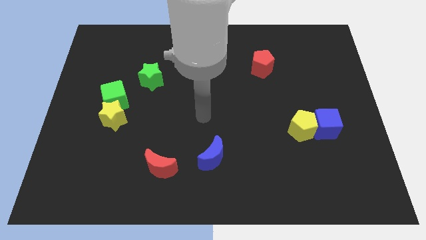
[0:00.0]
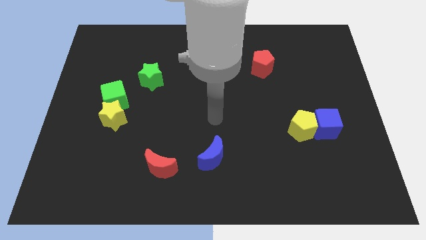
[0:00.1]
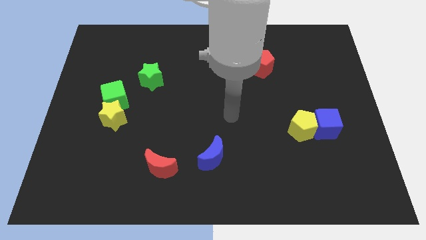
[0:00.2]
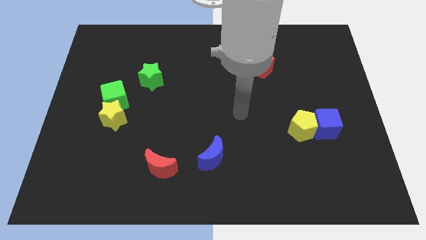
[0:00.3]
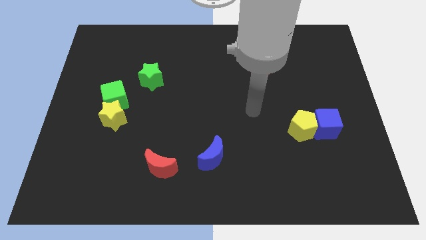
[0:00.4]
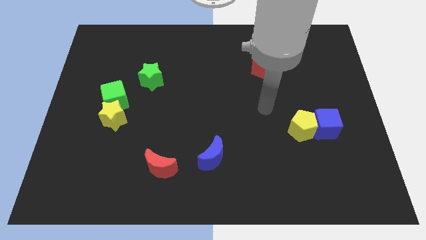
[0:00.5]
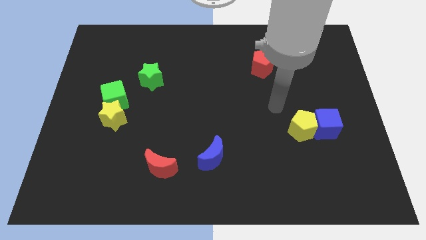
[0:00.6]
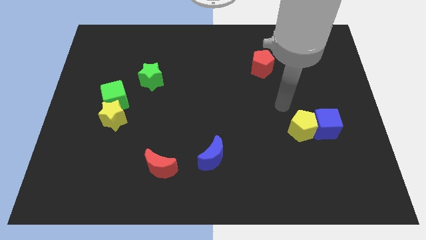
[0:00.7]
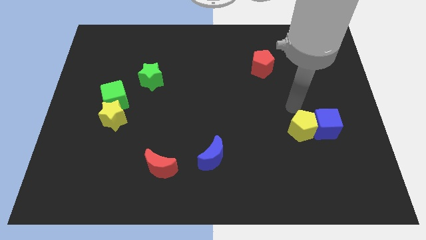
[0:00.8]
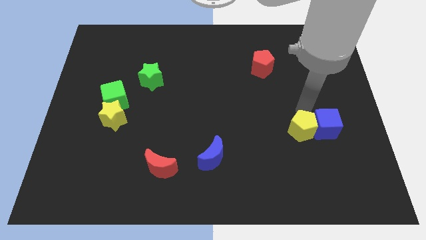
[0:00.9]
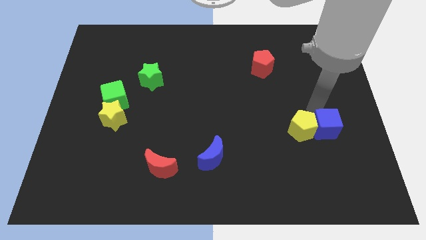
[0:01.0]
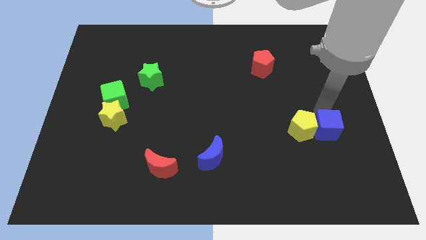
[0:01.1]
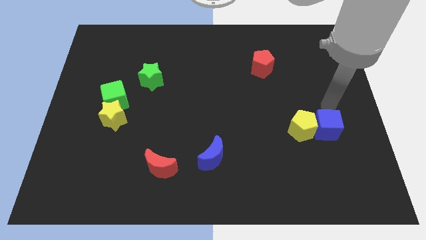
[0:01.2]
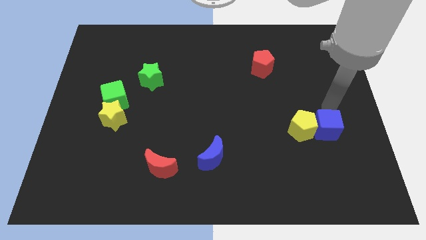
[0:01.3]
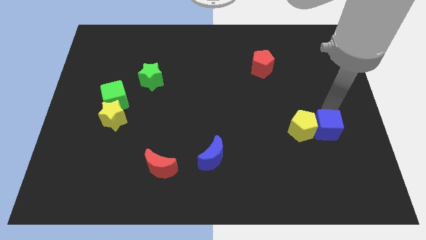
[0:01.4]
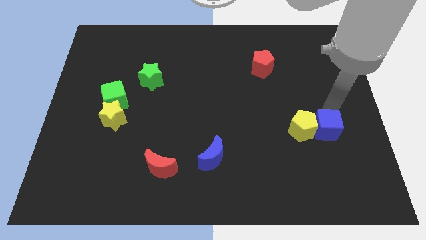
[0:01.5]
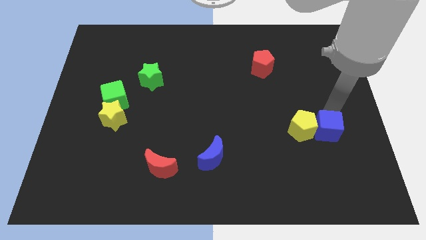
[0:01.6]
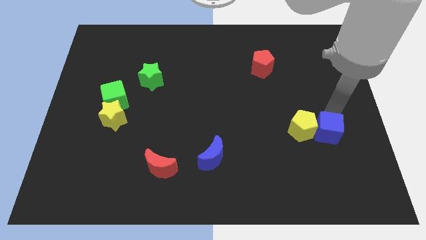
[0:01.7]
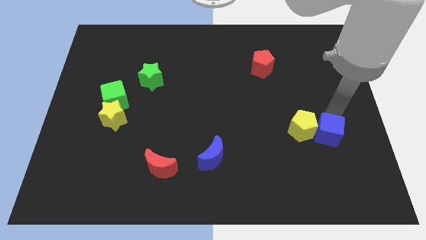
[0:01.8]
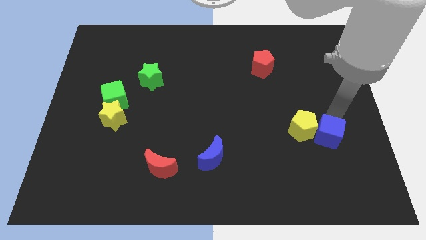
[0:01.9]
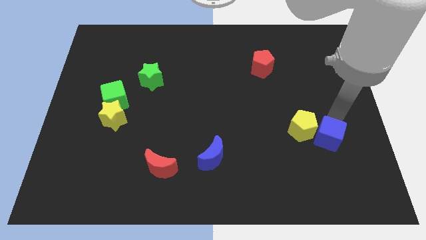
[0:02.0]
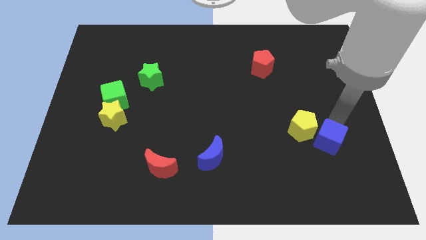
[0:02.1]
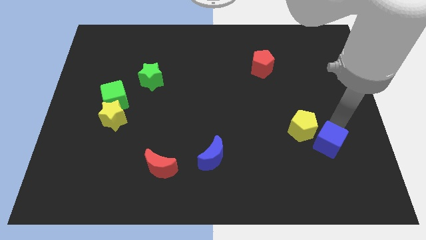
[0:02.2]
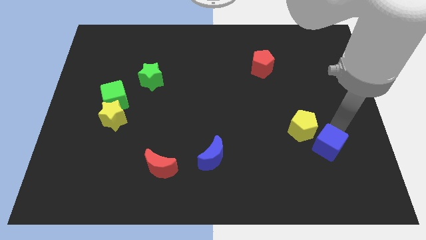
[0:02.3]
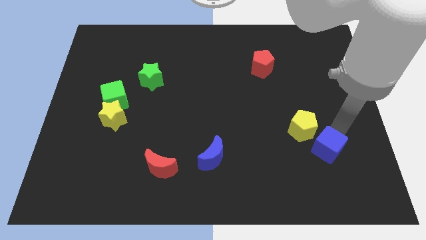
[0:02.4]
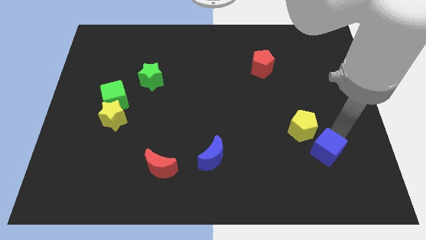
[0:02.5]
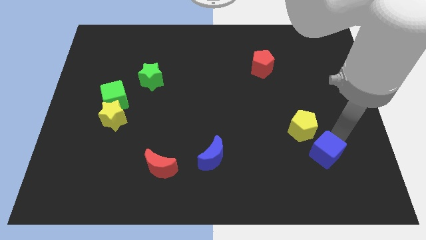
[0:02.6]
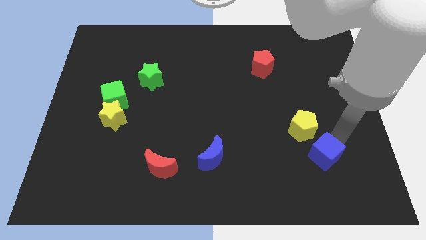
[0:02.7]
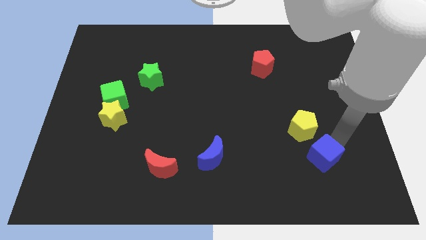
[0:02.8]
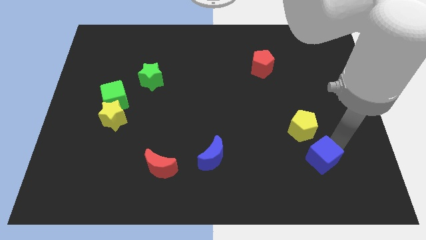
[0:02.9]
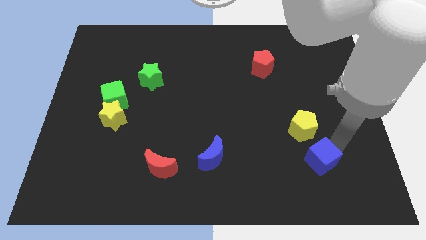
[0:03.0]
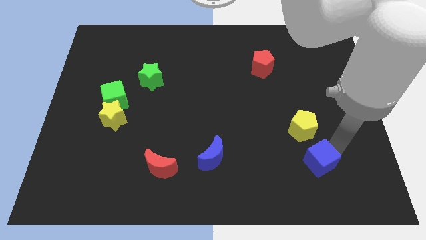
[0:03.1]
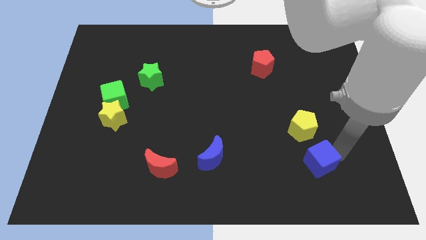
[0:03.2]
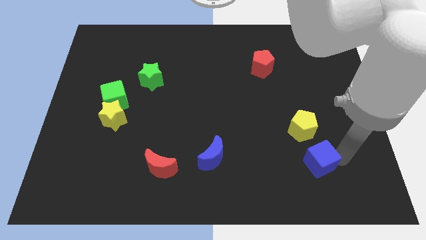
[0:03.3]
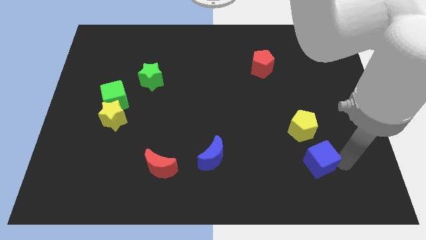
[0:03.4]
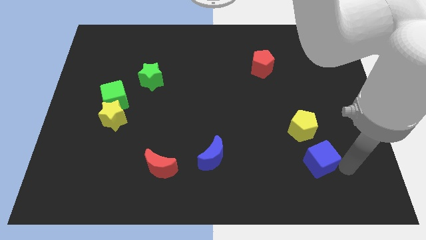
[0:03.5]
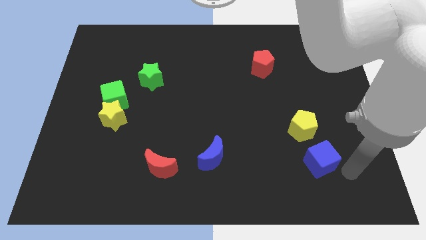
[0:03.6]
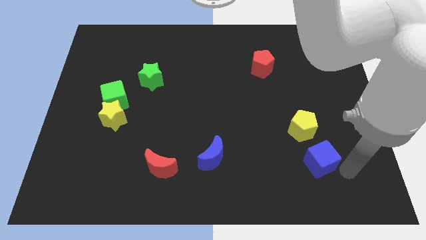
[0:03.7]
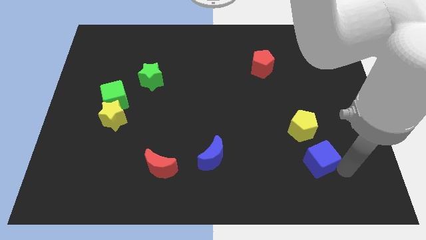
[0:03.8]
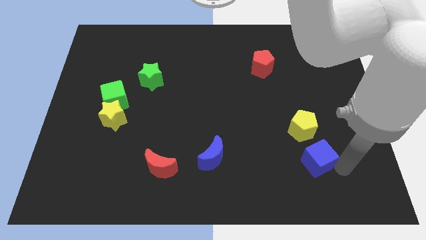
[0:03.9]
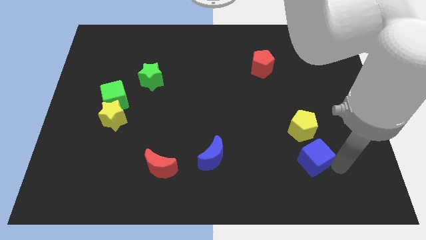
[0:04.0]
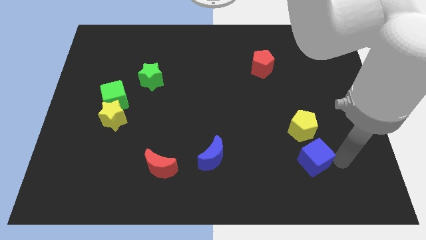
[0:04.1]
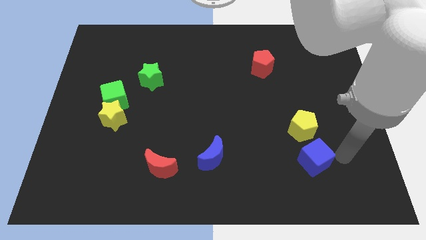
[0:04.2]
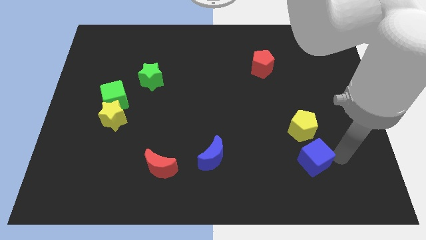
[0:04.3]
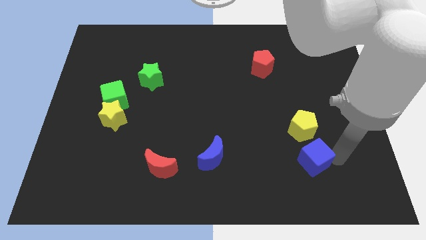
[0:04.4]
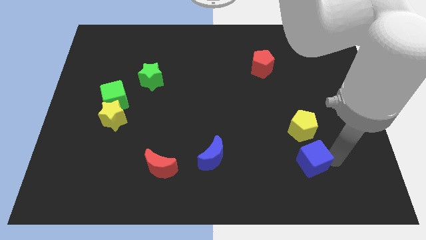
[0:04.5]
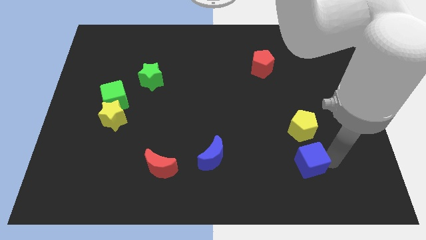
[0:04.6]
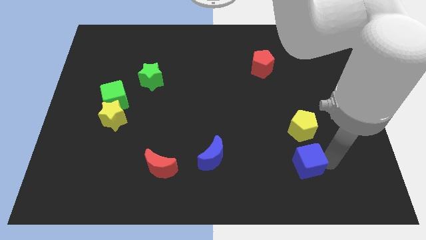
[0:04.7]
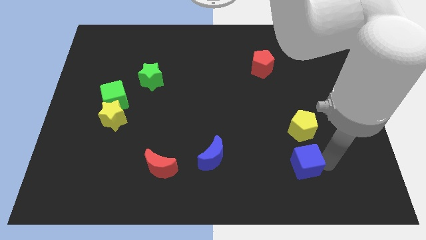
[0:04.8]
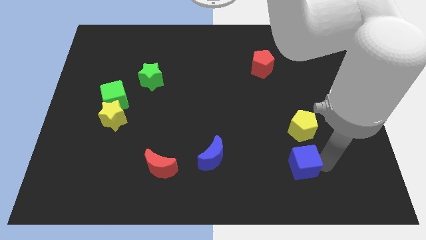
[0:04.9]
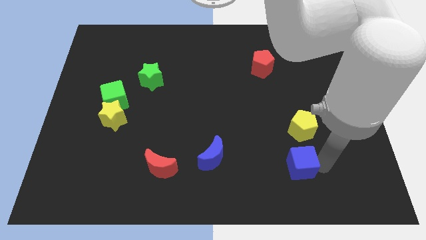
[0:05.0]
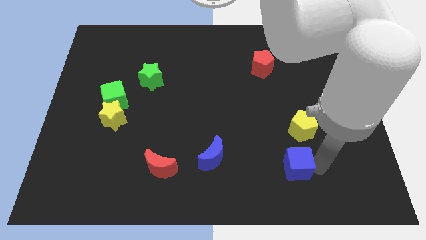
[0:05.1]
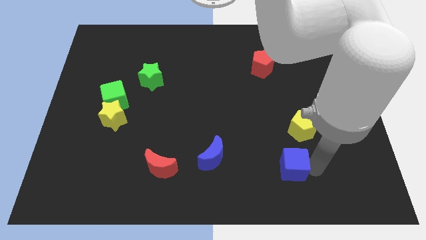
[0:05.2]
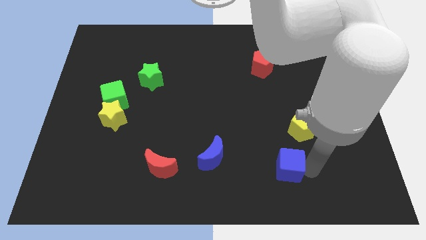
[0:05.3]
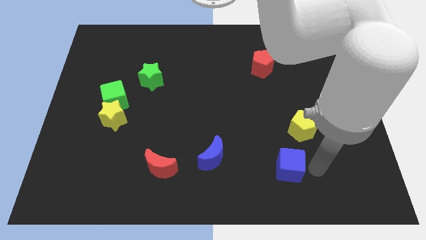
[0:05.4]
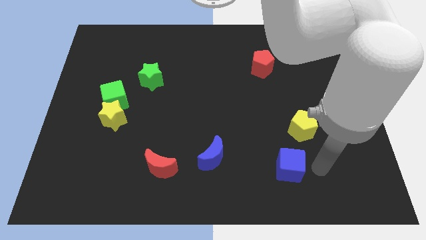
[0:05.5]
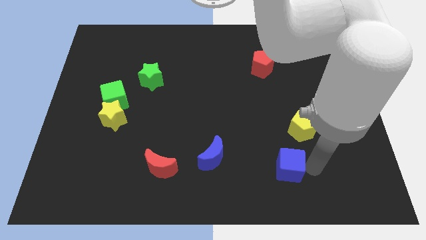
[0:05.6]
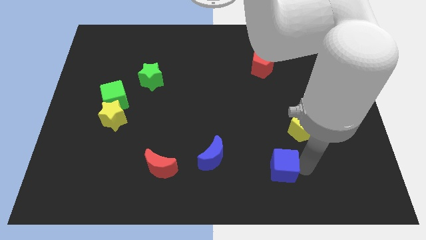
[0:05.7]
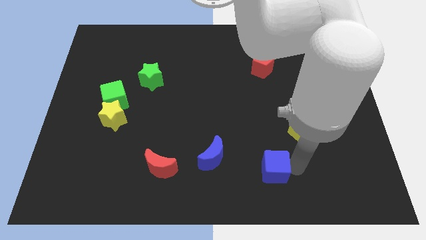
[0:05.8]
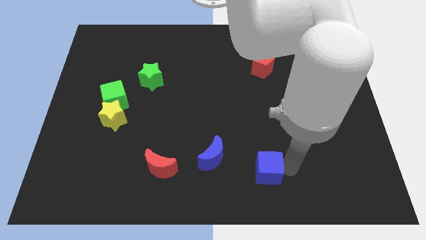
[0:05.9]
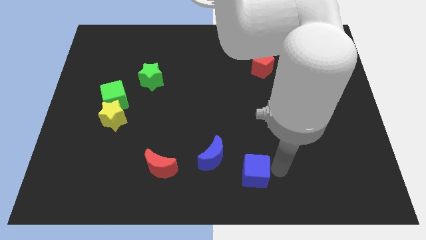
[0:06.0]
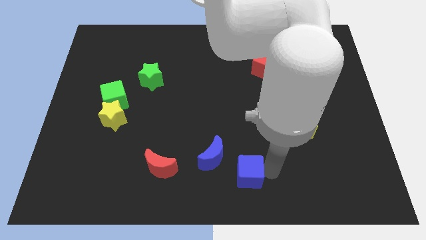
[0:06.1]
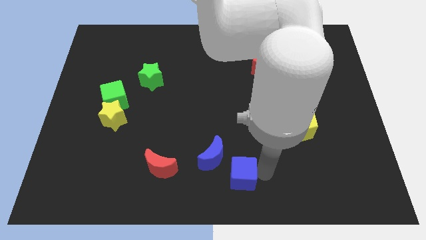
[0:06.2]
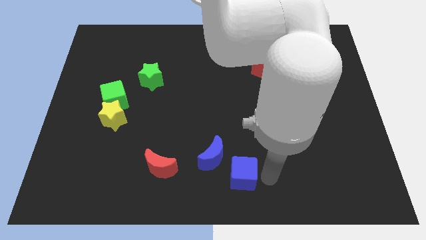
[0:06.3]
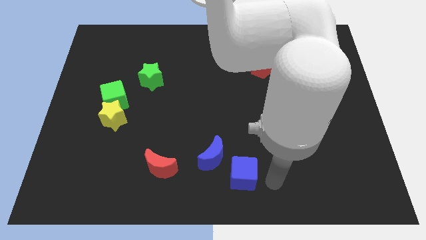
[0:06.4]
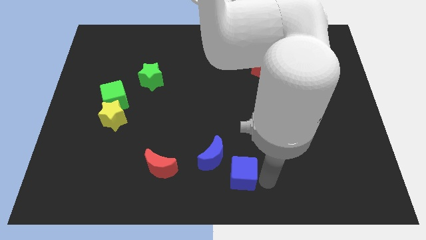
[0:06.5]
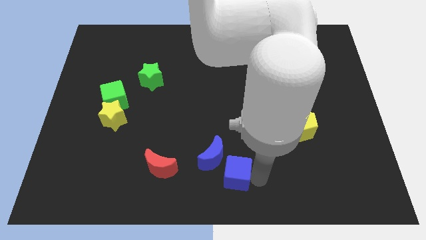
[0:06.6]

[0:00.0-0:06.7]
push the blue cube right of the red moon
